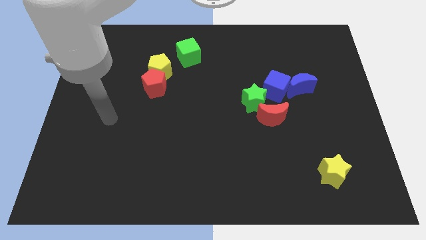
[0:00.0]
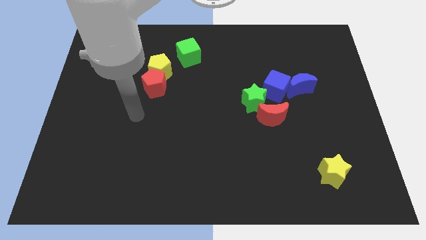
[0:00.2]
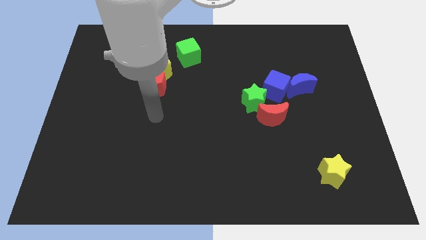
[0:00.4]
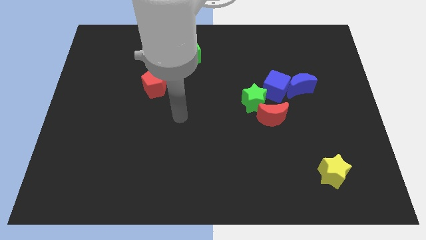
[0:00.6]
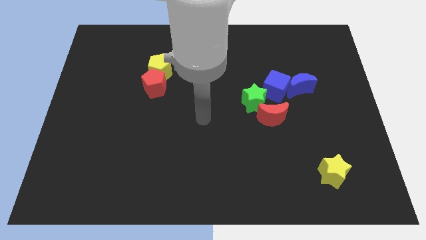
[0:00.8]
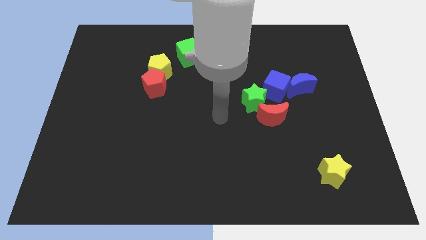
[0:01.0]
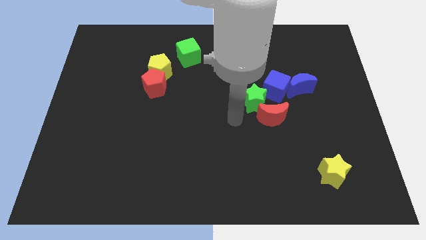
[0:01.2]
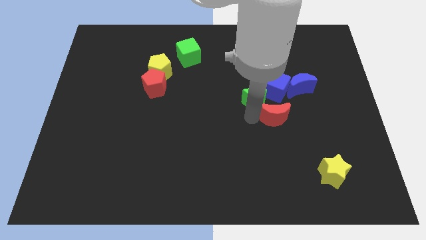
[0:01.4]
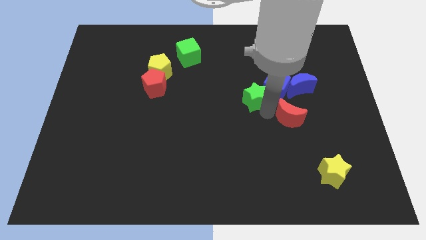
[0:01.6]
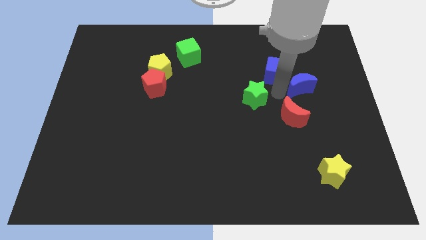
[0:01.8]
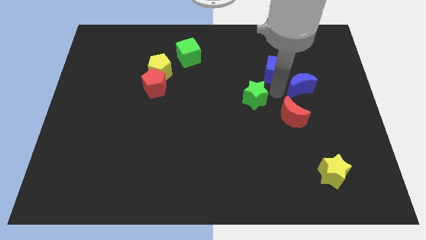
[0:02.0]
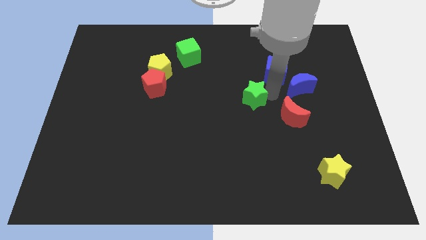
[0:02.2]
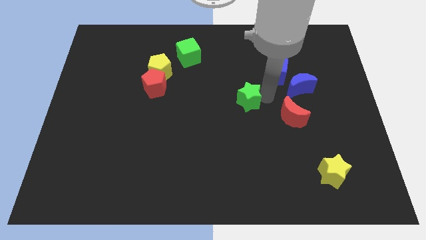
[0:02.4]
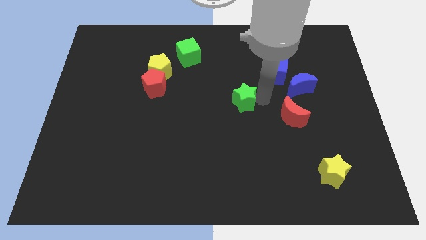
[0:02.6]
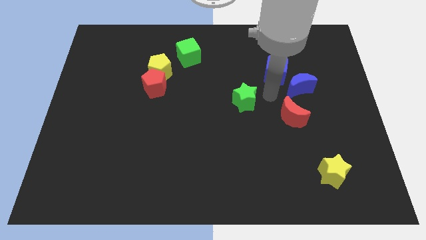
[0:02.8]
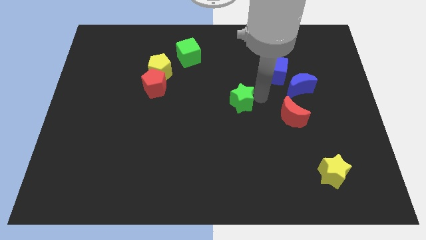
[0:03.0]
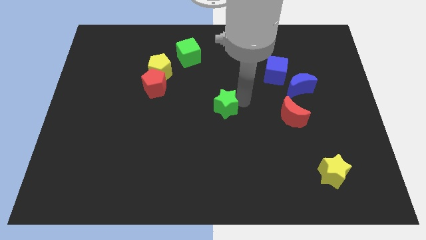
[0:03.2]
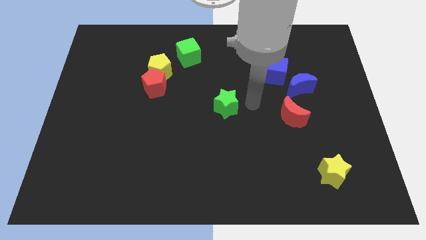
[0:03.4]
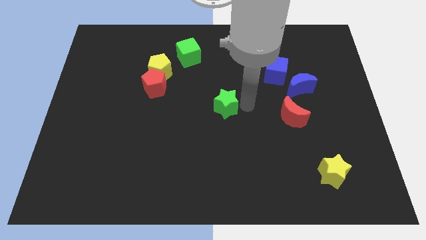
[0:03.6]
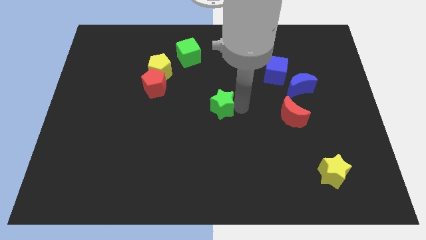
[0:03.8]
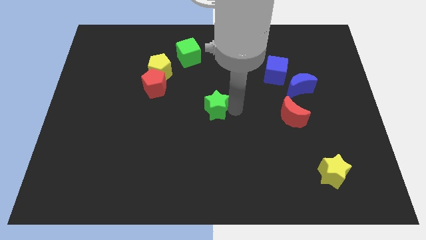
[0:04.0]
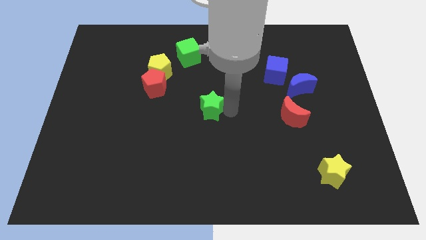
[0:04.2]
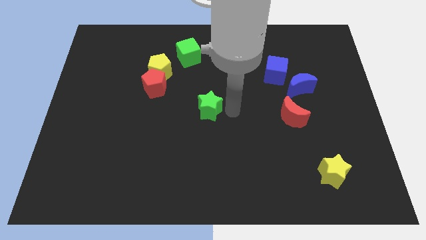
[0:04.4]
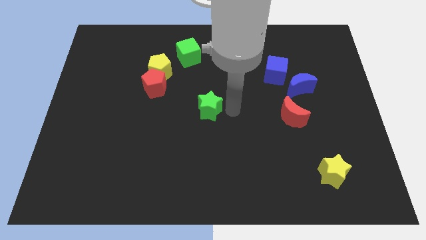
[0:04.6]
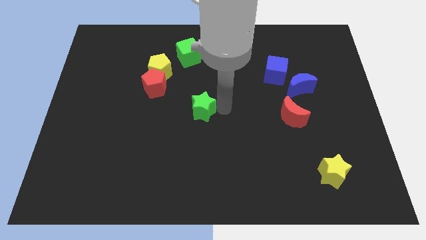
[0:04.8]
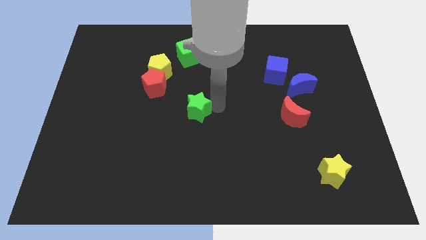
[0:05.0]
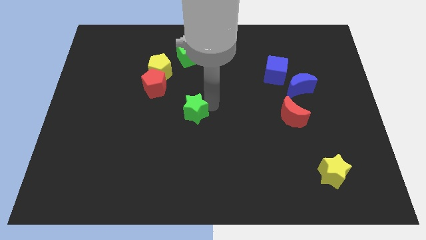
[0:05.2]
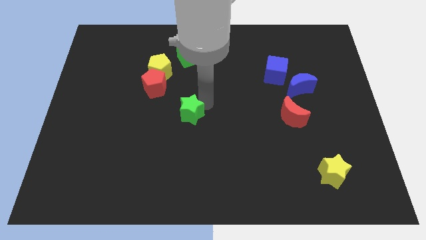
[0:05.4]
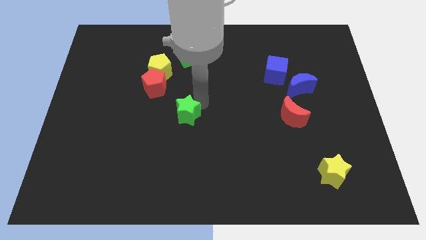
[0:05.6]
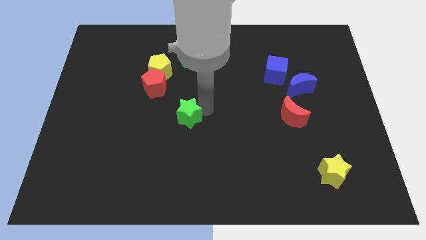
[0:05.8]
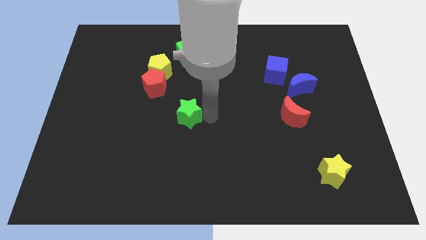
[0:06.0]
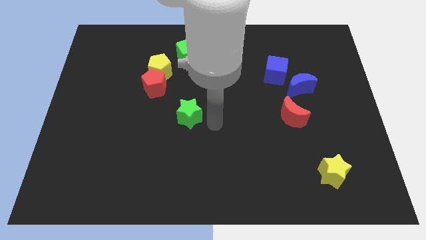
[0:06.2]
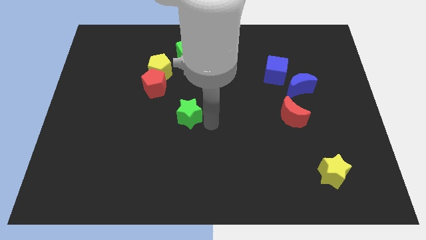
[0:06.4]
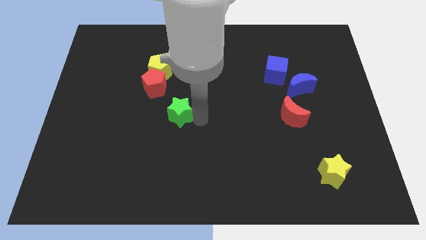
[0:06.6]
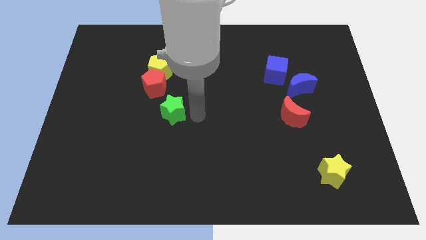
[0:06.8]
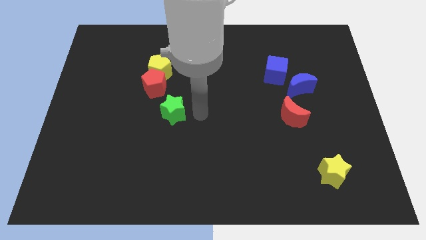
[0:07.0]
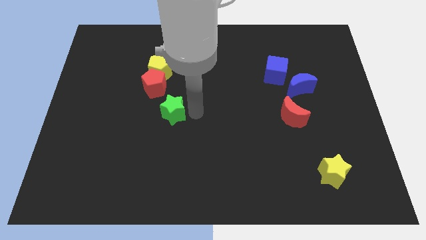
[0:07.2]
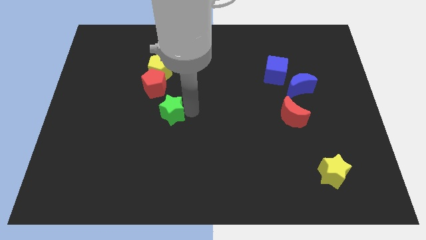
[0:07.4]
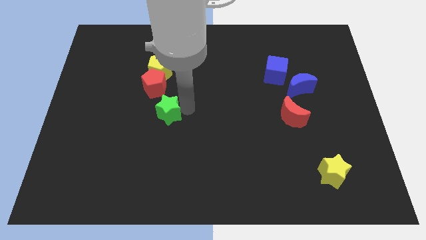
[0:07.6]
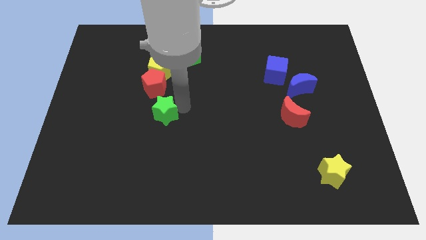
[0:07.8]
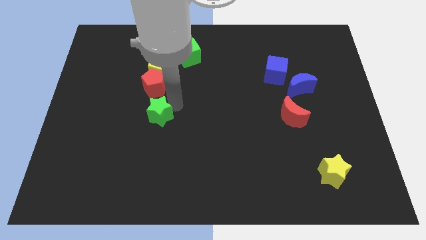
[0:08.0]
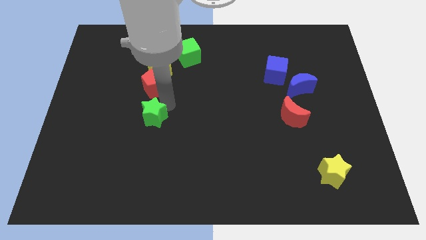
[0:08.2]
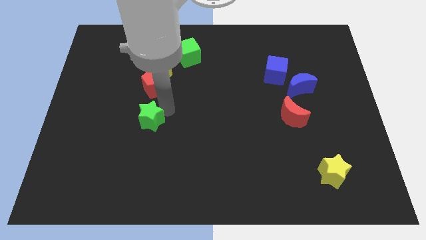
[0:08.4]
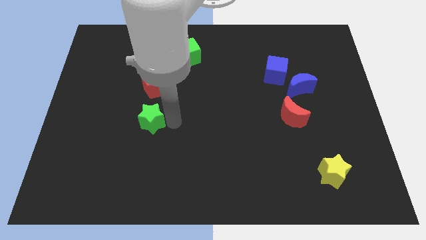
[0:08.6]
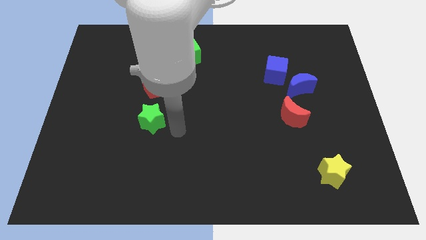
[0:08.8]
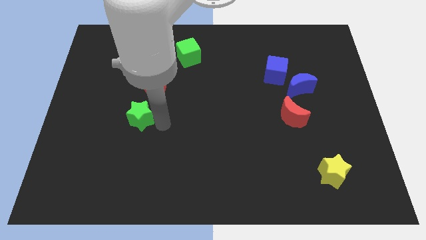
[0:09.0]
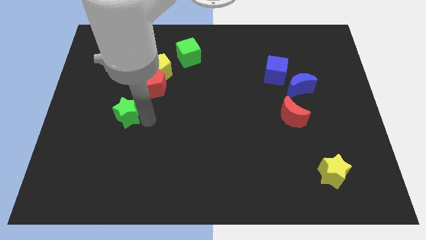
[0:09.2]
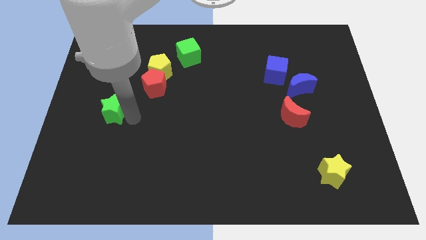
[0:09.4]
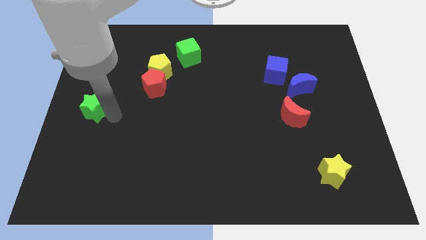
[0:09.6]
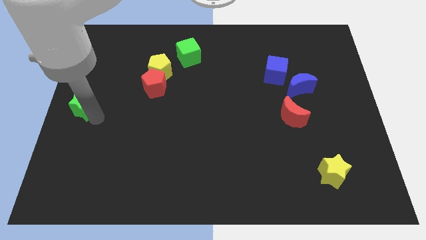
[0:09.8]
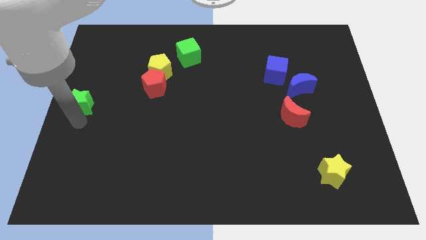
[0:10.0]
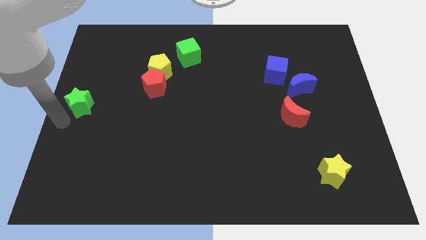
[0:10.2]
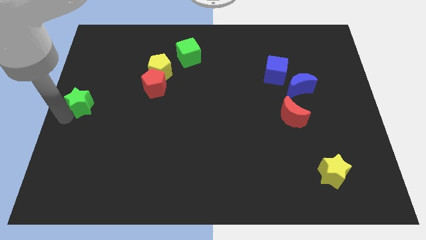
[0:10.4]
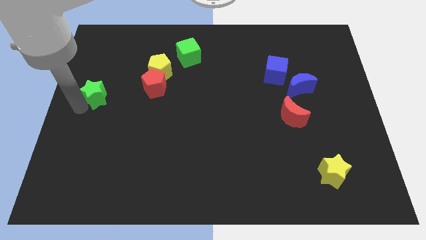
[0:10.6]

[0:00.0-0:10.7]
slide the green star to the left side of the red pentagon

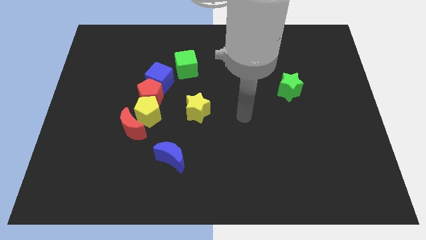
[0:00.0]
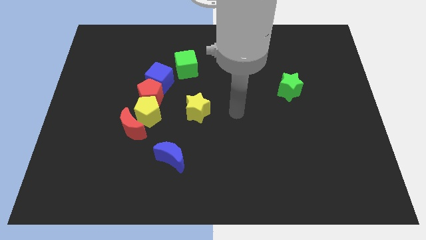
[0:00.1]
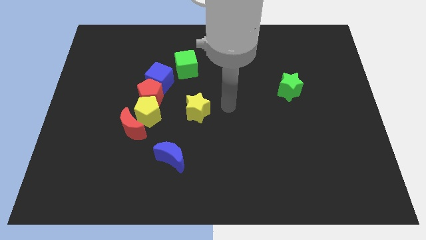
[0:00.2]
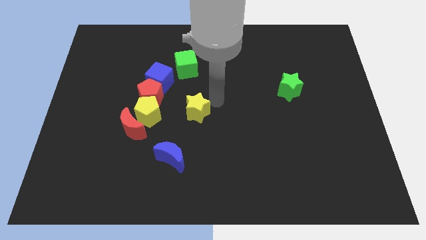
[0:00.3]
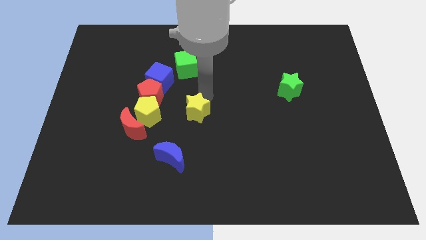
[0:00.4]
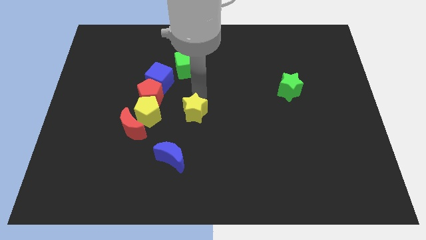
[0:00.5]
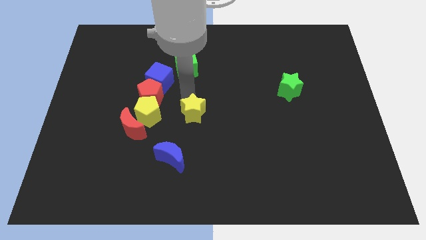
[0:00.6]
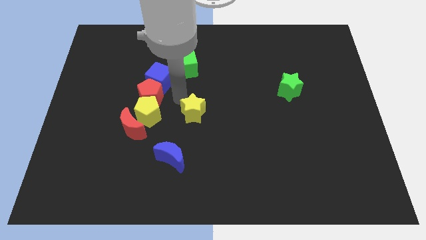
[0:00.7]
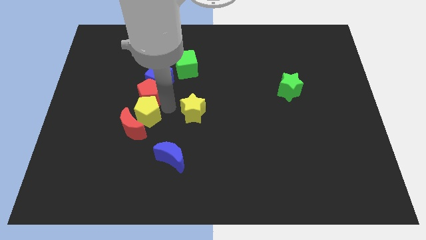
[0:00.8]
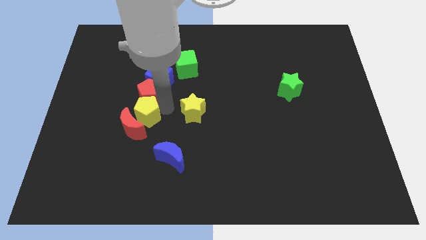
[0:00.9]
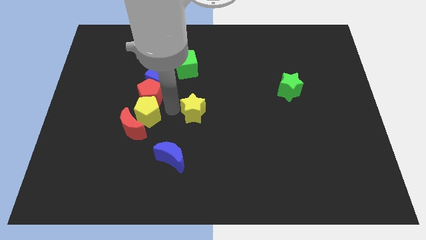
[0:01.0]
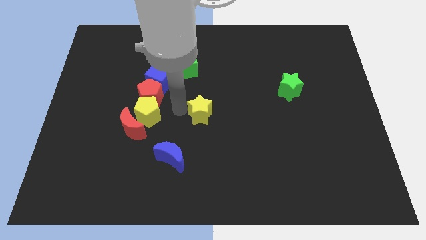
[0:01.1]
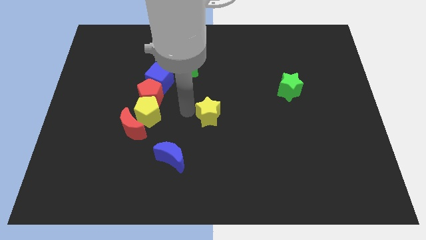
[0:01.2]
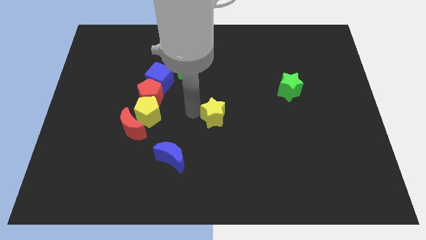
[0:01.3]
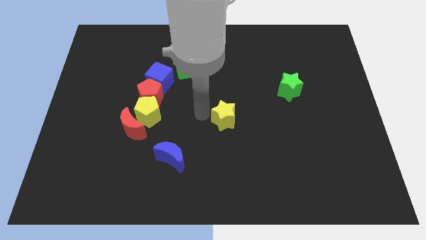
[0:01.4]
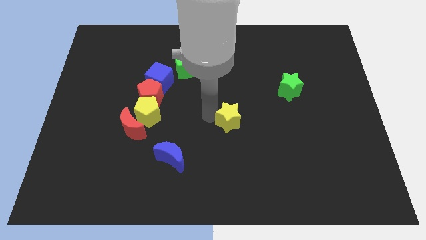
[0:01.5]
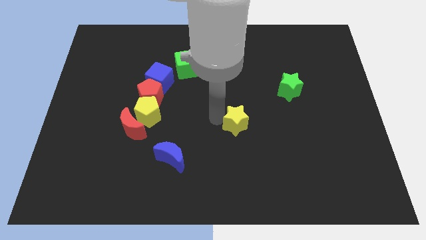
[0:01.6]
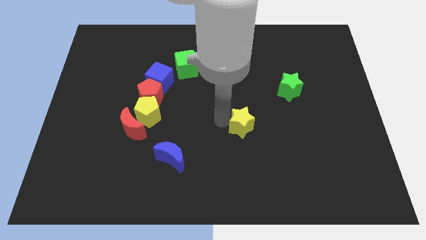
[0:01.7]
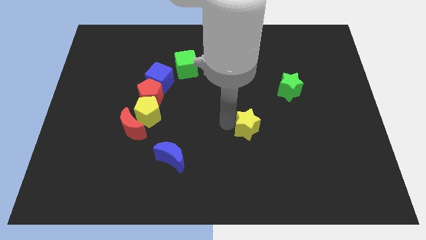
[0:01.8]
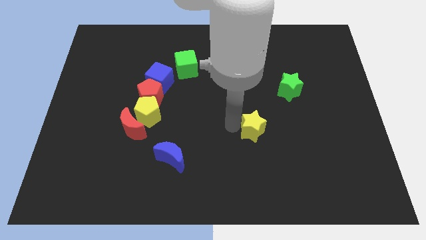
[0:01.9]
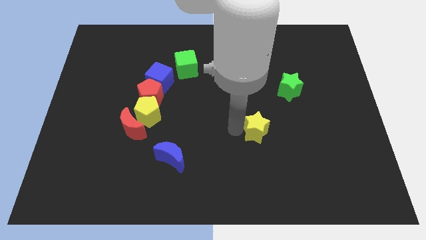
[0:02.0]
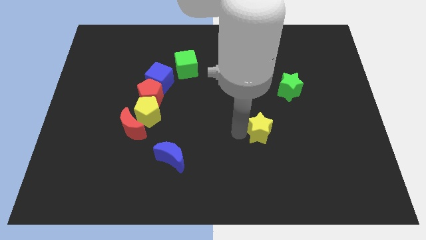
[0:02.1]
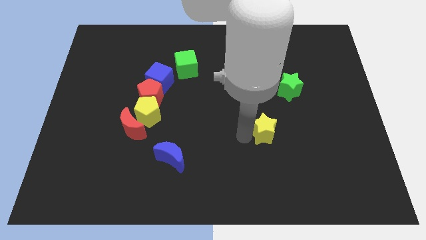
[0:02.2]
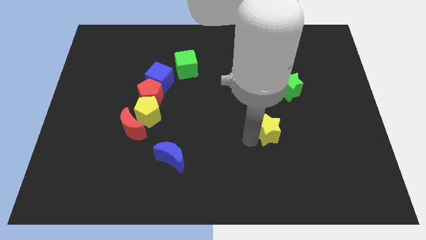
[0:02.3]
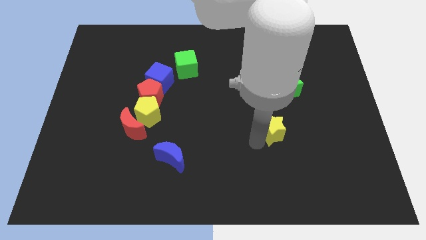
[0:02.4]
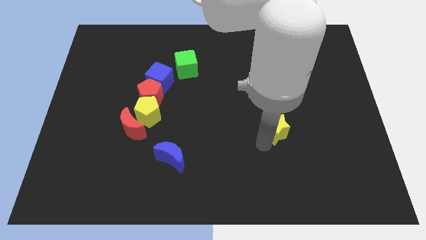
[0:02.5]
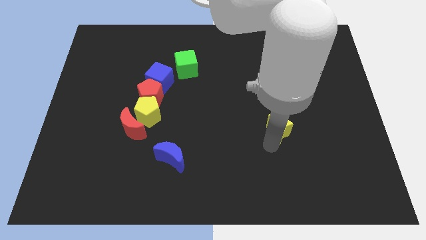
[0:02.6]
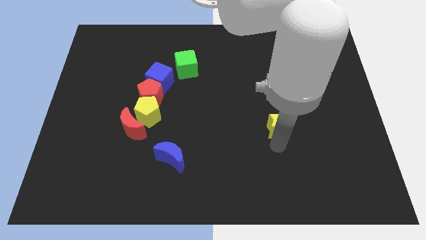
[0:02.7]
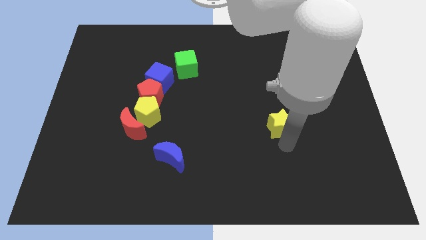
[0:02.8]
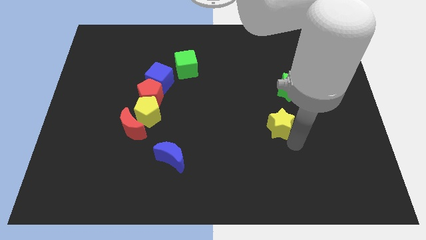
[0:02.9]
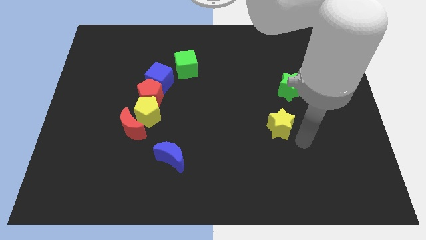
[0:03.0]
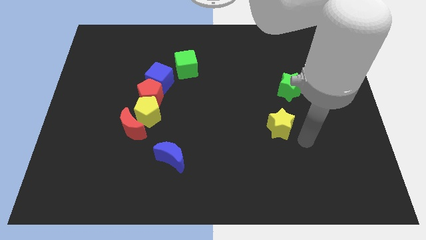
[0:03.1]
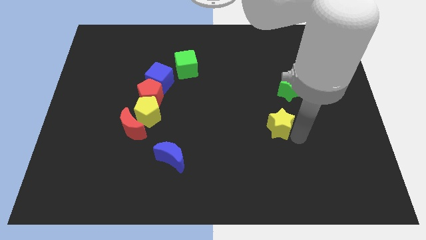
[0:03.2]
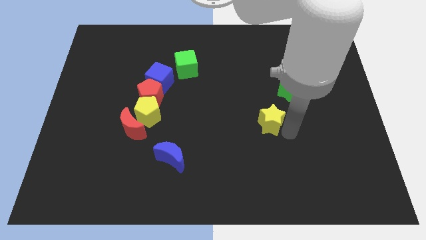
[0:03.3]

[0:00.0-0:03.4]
move the yellow star to the bottom left side of the green star
